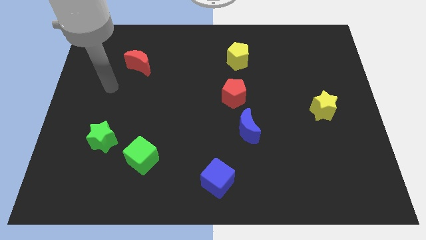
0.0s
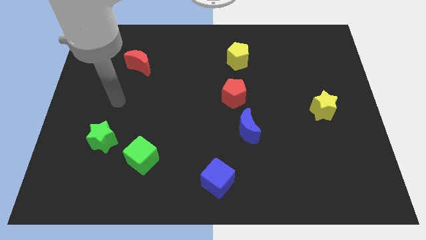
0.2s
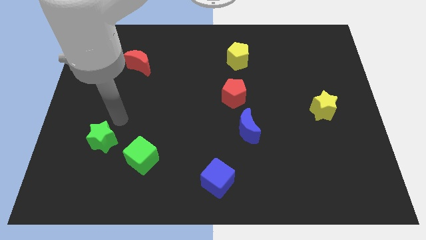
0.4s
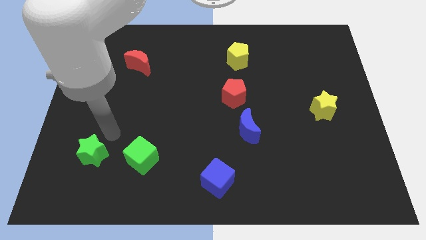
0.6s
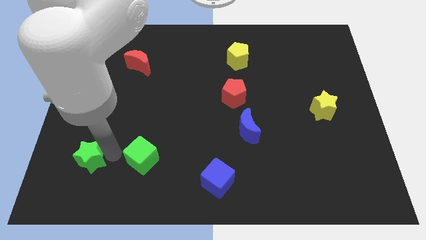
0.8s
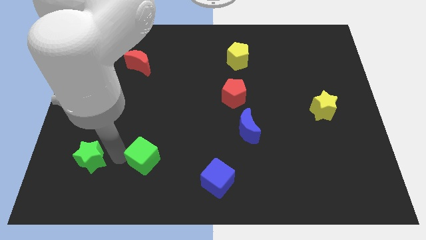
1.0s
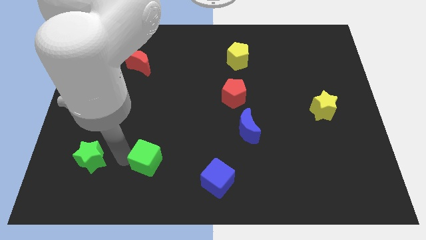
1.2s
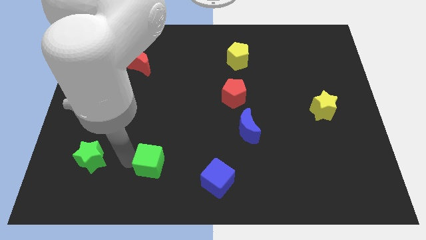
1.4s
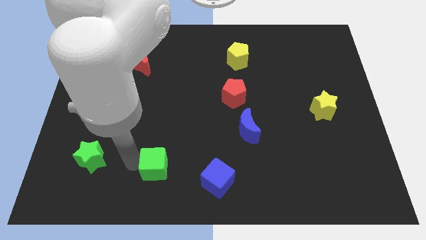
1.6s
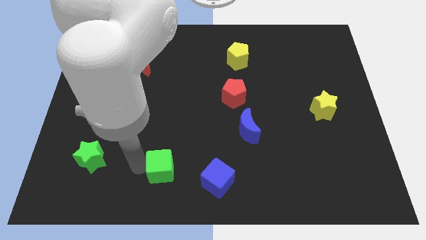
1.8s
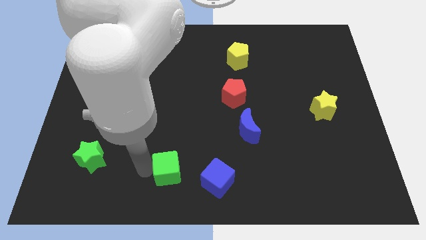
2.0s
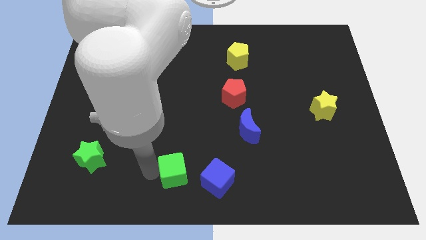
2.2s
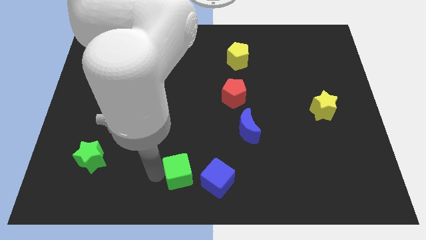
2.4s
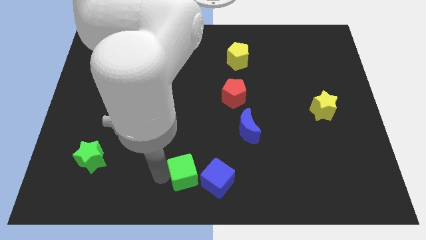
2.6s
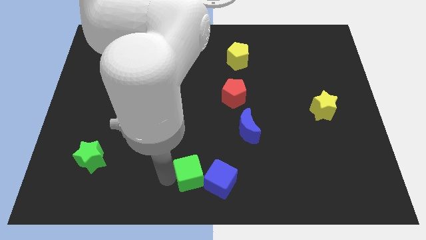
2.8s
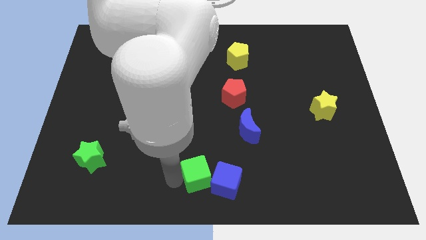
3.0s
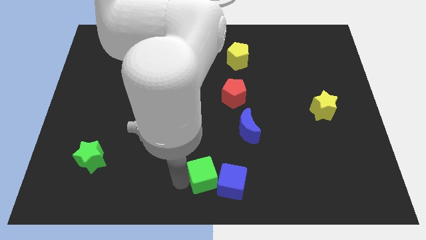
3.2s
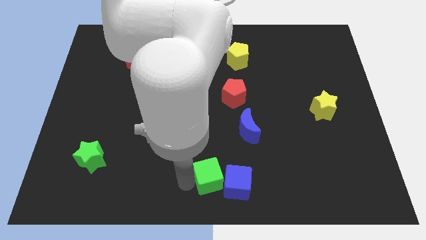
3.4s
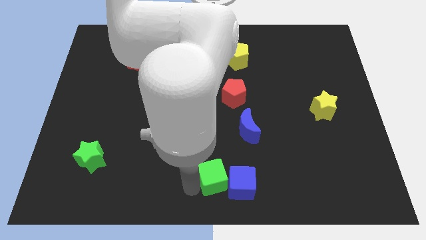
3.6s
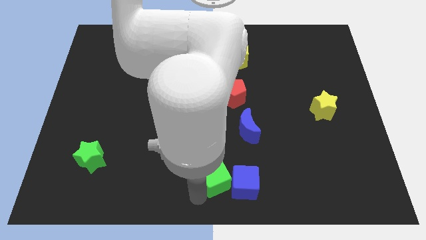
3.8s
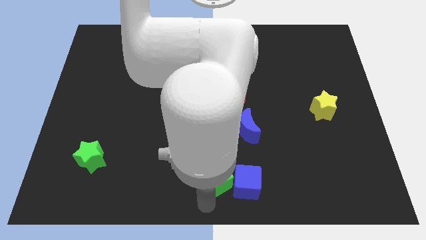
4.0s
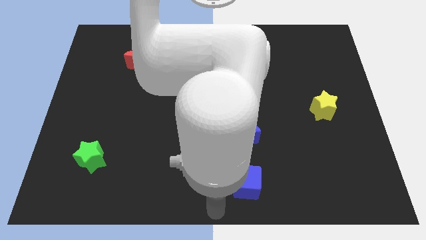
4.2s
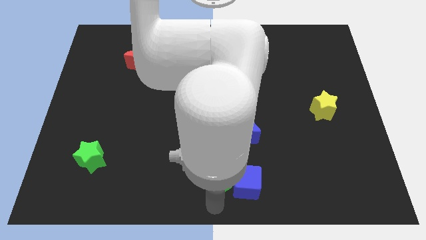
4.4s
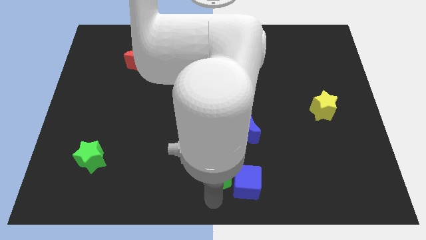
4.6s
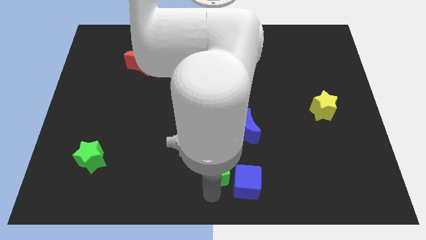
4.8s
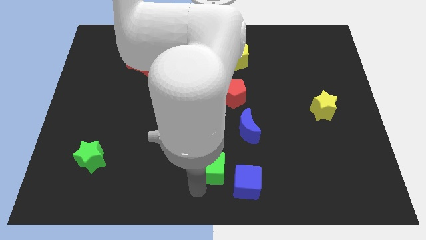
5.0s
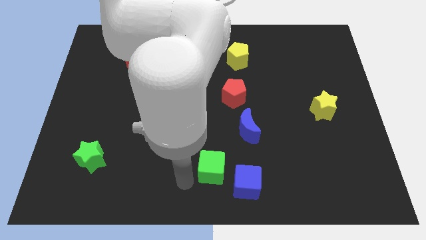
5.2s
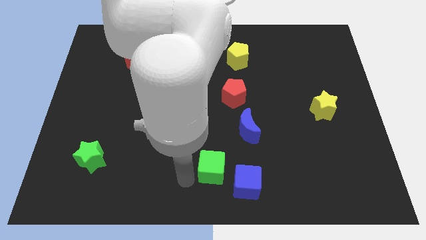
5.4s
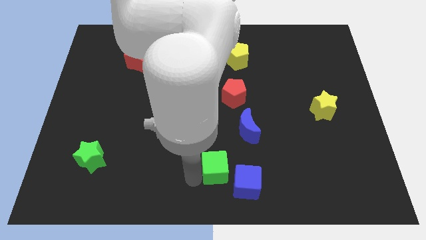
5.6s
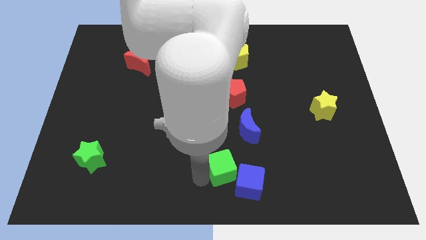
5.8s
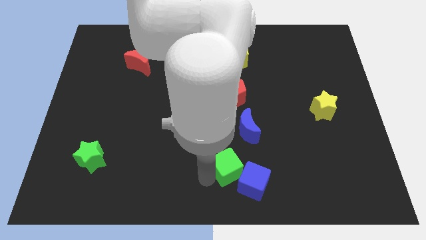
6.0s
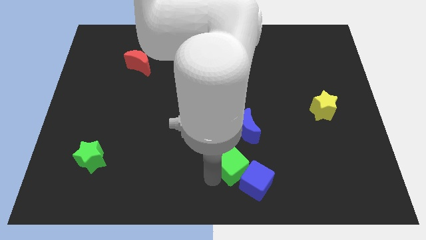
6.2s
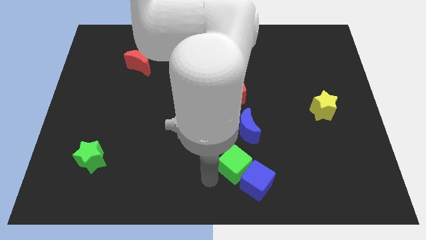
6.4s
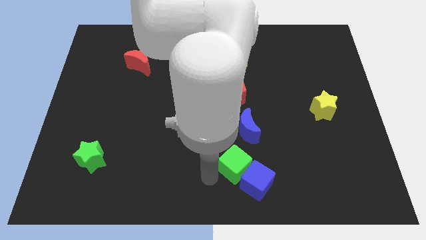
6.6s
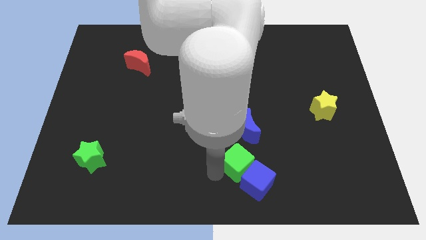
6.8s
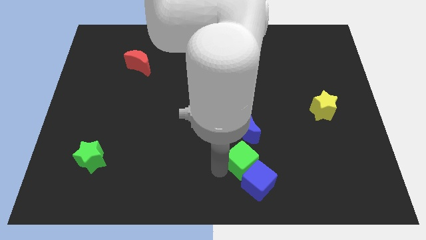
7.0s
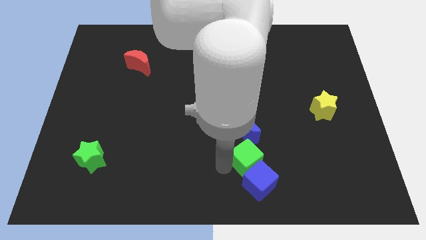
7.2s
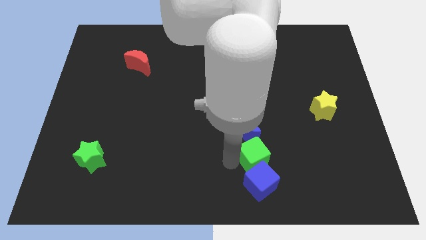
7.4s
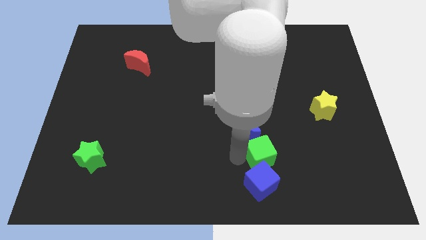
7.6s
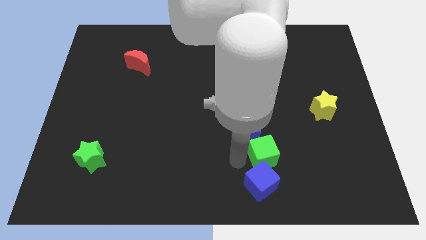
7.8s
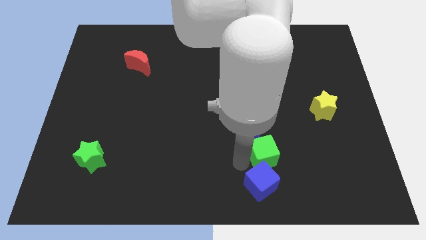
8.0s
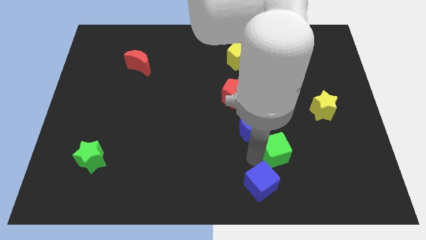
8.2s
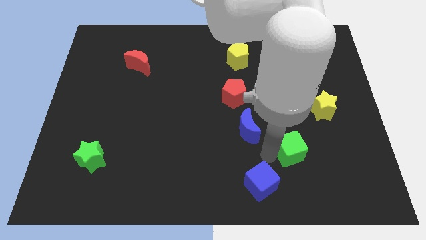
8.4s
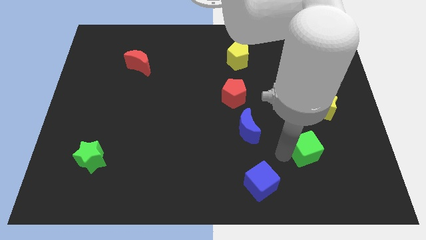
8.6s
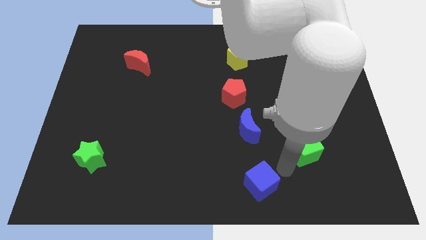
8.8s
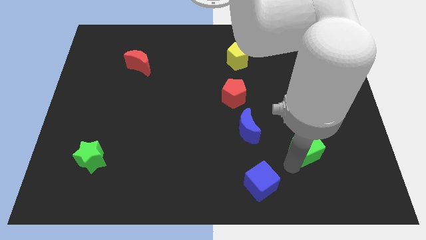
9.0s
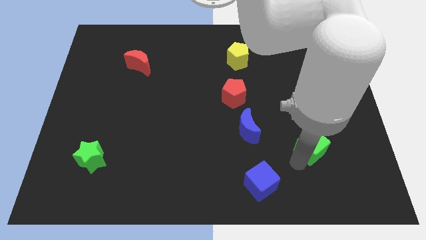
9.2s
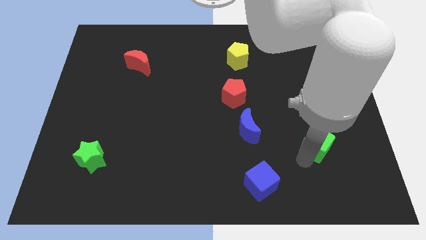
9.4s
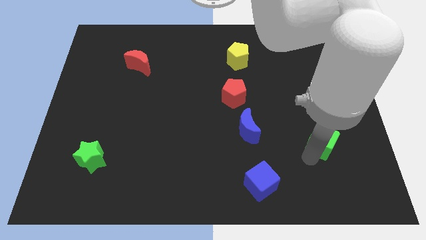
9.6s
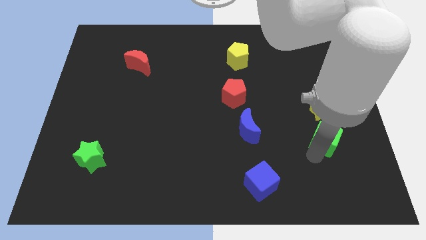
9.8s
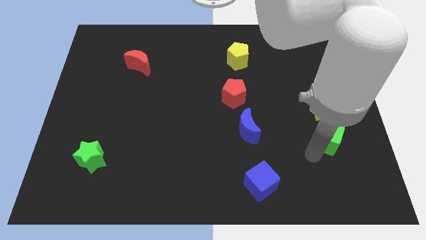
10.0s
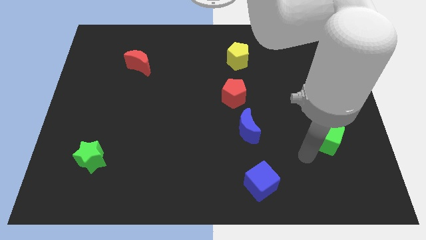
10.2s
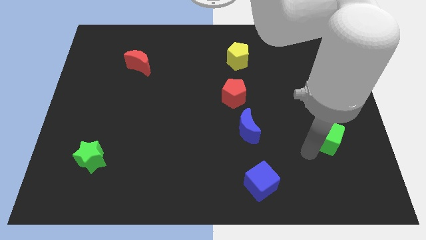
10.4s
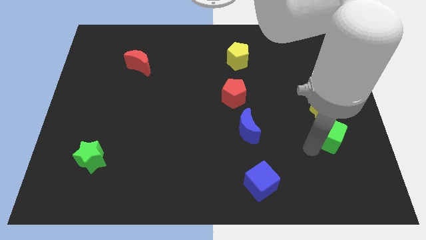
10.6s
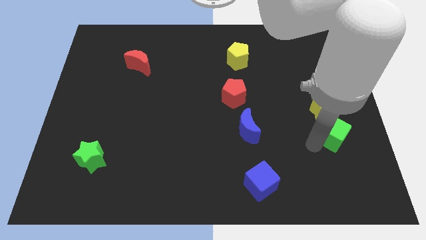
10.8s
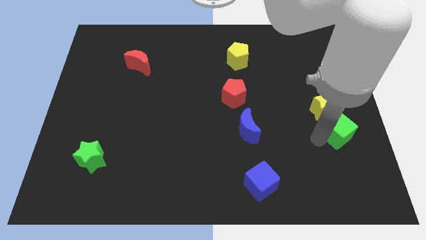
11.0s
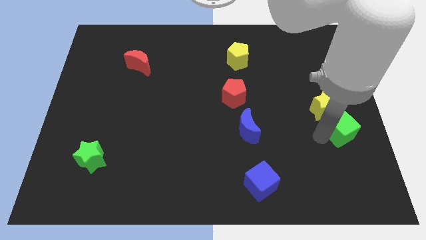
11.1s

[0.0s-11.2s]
put the green cube to the right side of the board
